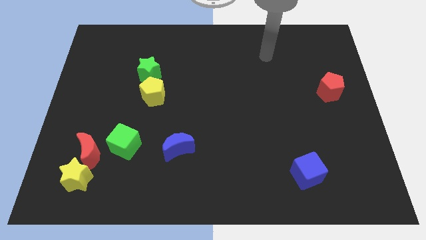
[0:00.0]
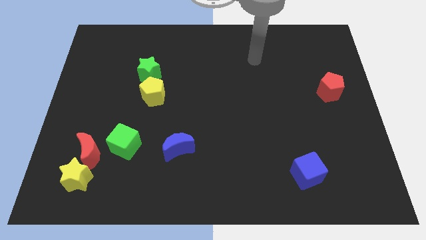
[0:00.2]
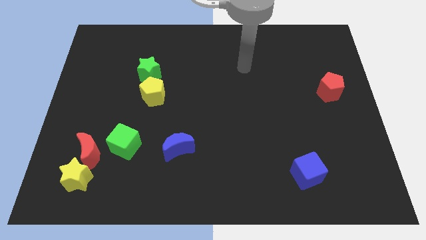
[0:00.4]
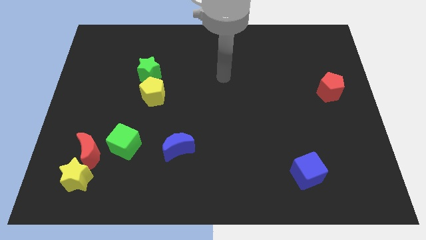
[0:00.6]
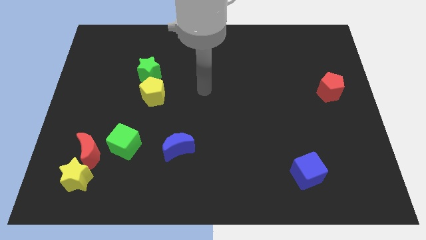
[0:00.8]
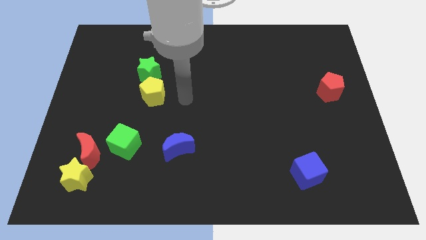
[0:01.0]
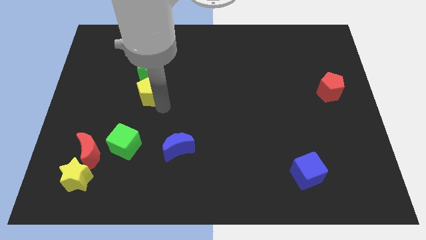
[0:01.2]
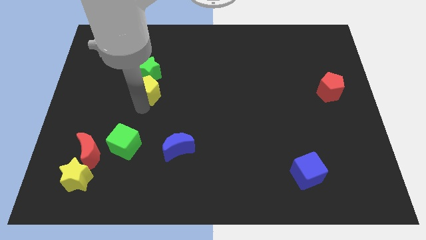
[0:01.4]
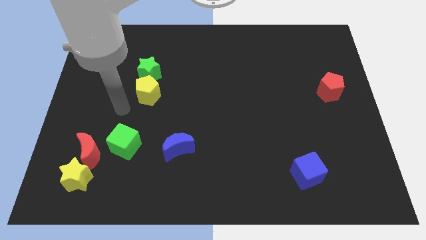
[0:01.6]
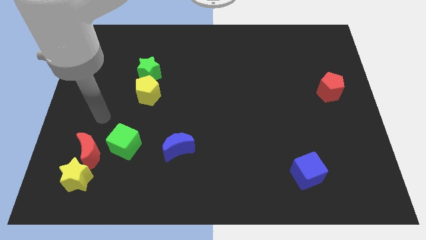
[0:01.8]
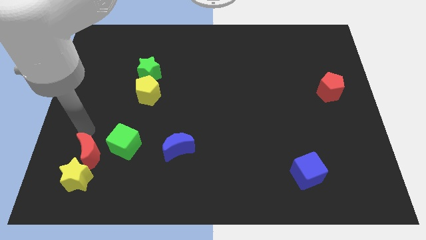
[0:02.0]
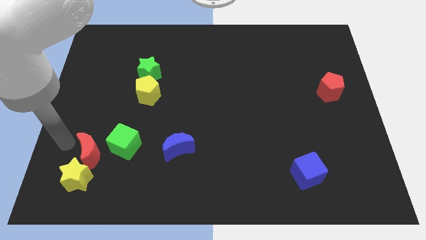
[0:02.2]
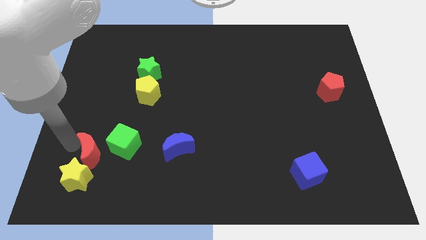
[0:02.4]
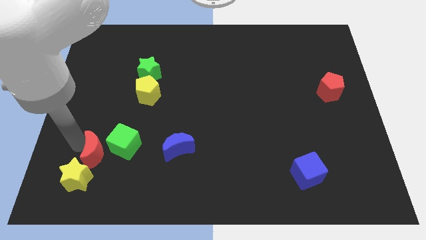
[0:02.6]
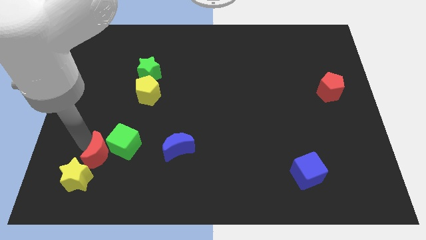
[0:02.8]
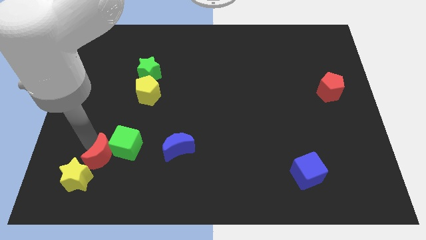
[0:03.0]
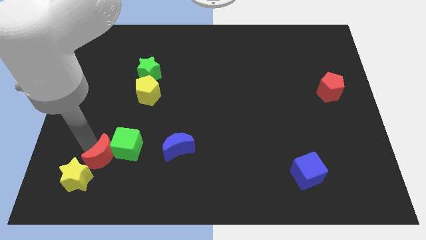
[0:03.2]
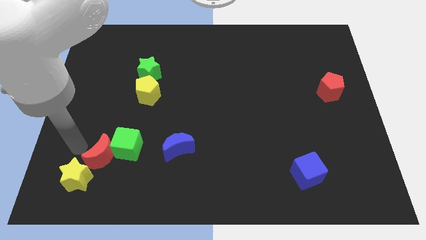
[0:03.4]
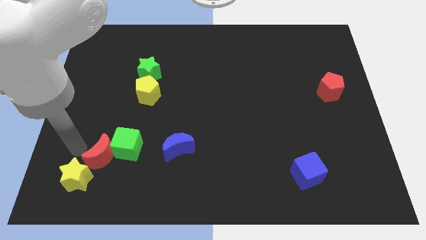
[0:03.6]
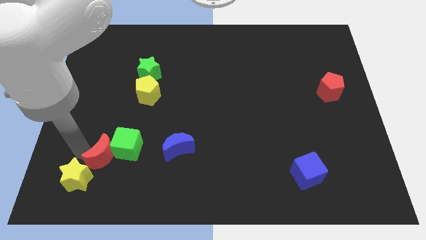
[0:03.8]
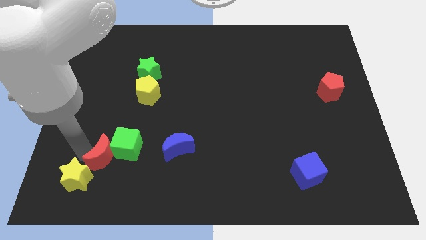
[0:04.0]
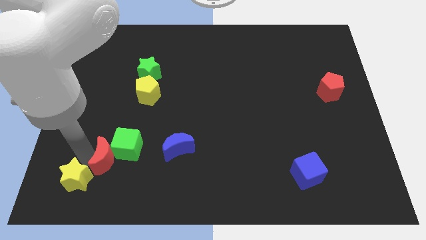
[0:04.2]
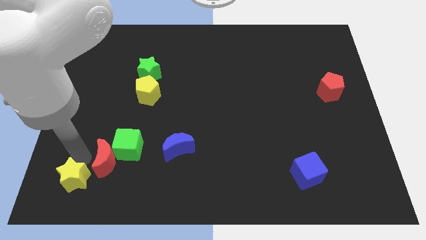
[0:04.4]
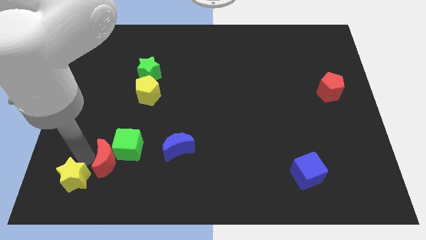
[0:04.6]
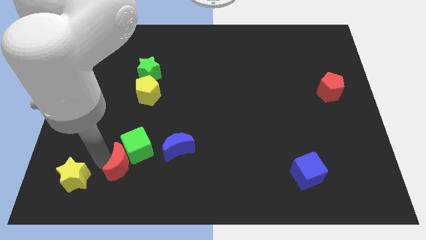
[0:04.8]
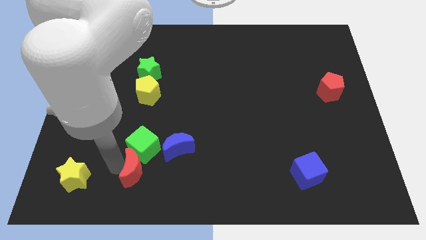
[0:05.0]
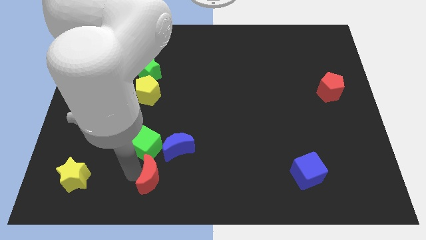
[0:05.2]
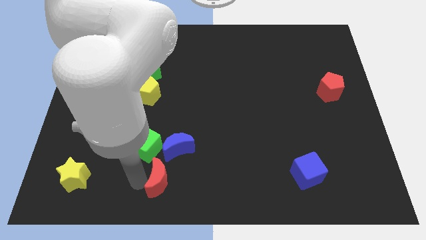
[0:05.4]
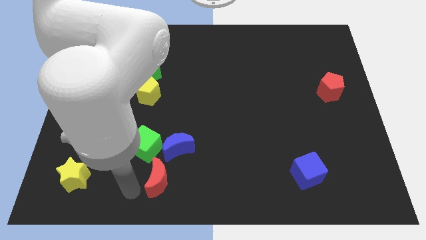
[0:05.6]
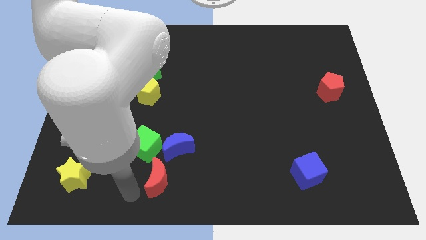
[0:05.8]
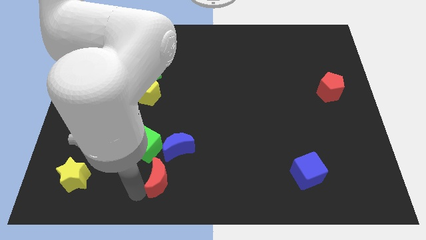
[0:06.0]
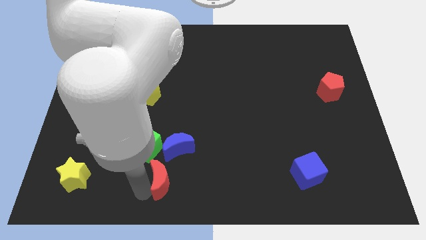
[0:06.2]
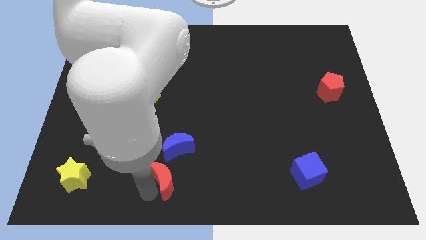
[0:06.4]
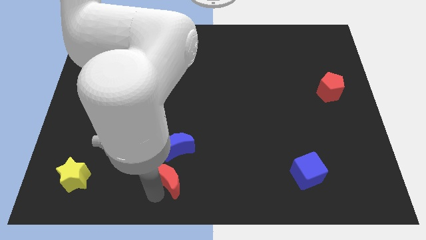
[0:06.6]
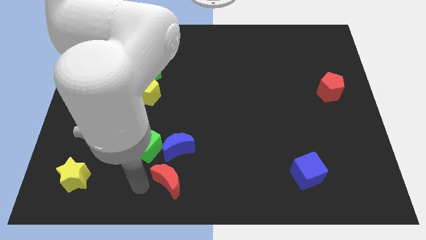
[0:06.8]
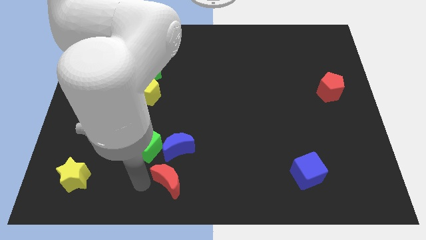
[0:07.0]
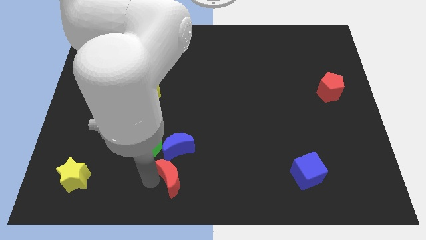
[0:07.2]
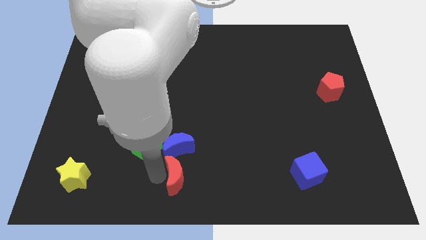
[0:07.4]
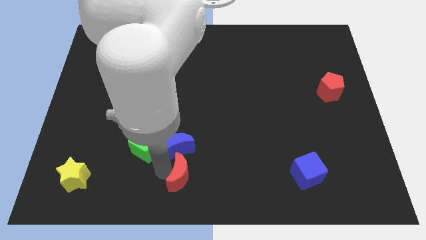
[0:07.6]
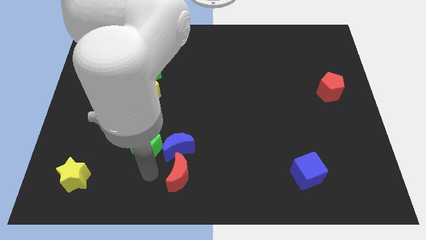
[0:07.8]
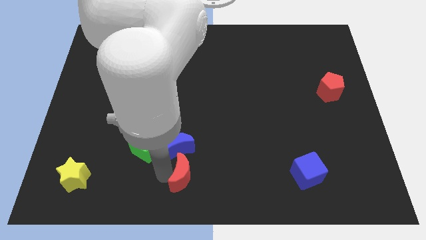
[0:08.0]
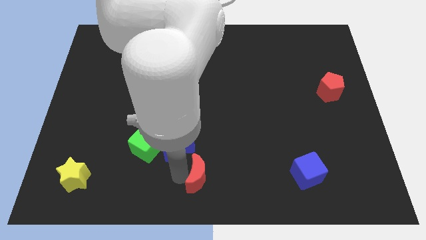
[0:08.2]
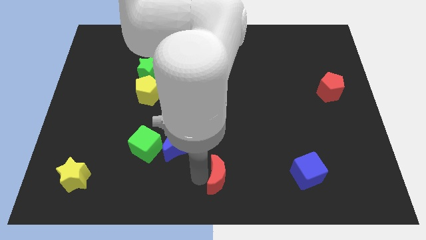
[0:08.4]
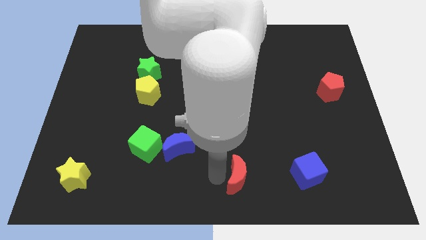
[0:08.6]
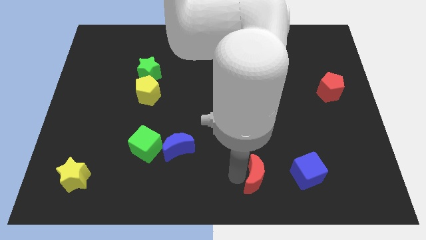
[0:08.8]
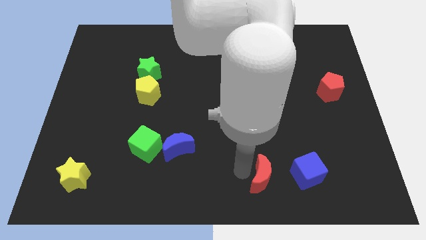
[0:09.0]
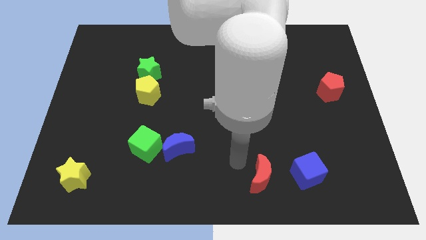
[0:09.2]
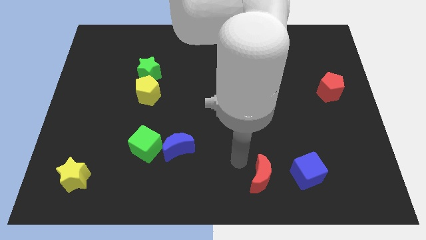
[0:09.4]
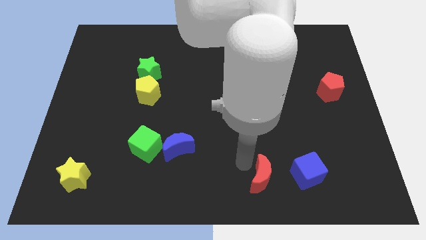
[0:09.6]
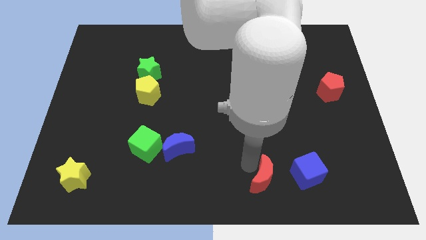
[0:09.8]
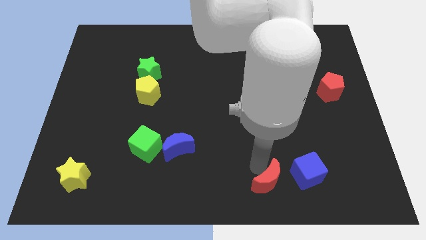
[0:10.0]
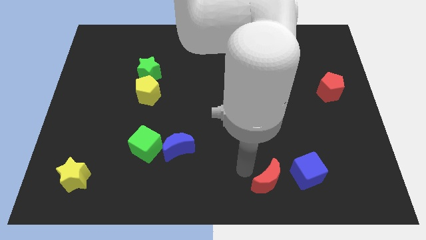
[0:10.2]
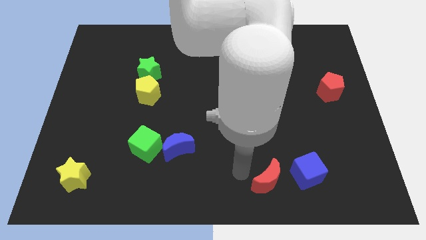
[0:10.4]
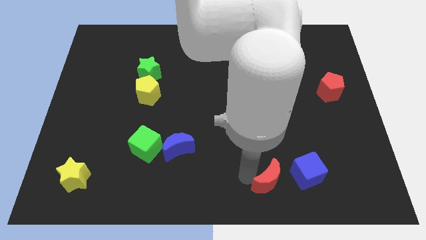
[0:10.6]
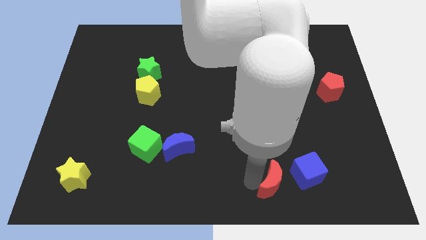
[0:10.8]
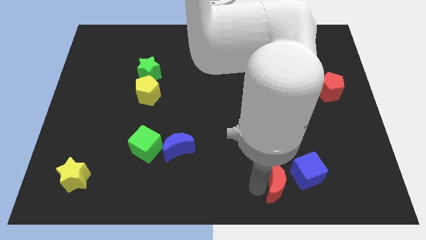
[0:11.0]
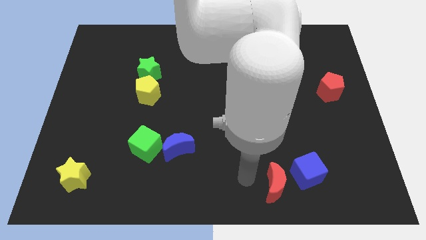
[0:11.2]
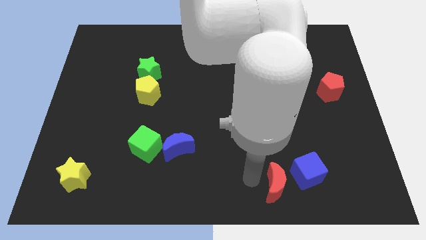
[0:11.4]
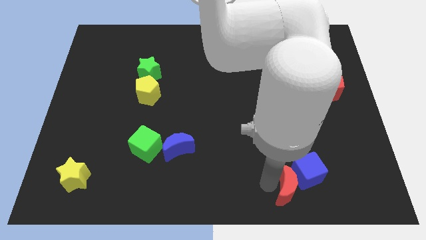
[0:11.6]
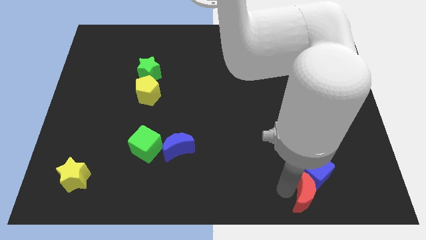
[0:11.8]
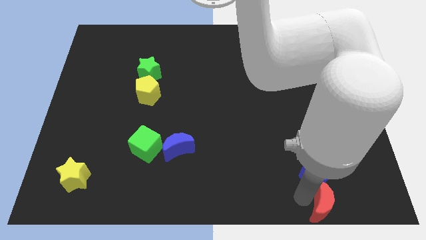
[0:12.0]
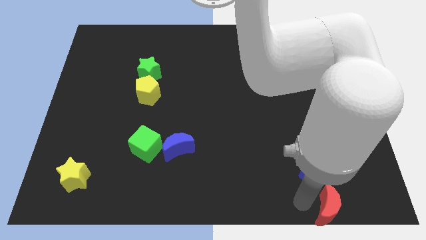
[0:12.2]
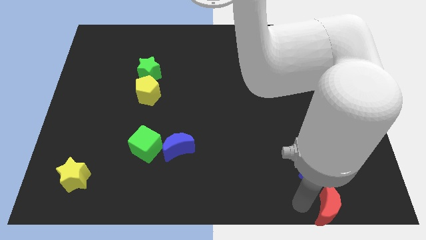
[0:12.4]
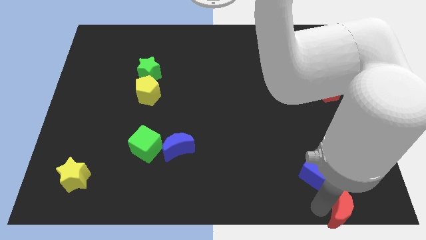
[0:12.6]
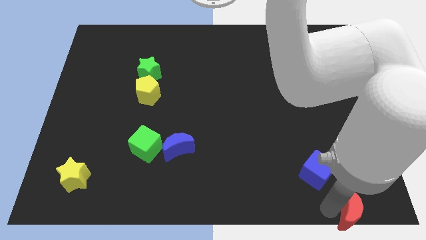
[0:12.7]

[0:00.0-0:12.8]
put the red moon to the bottom right

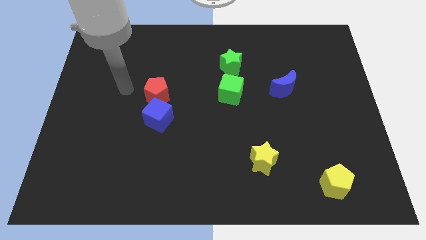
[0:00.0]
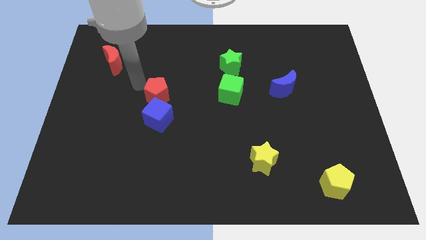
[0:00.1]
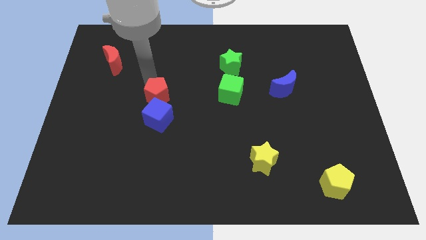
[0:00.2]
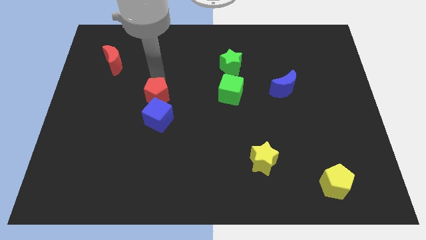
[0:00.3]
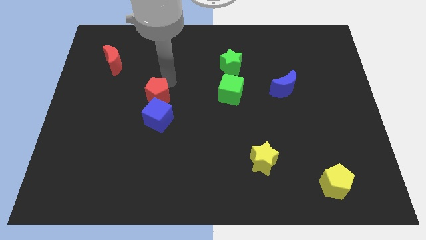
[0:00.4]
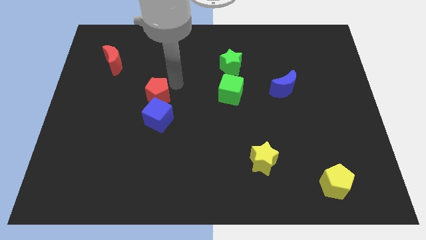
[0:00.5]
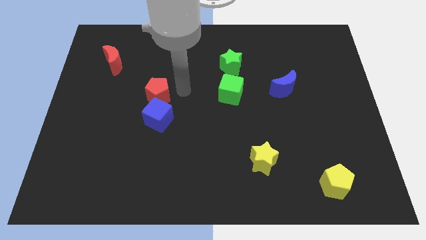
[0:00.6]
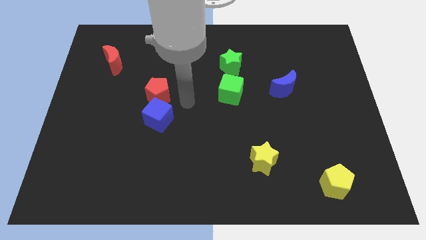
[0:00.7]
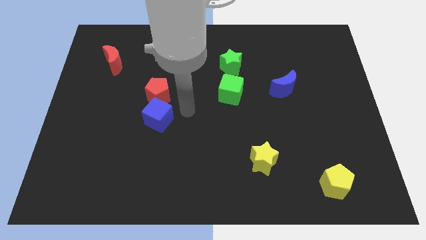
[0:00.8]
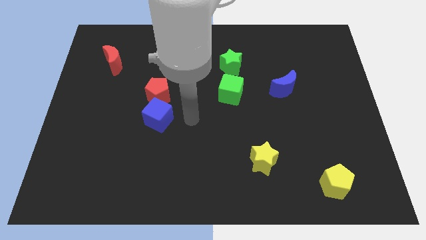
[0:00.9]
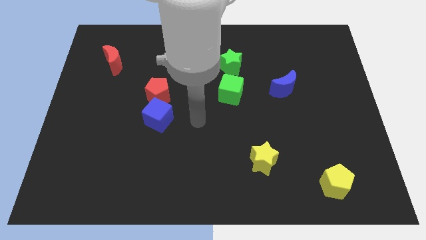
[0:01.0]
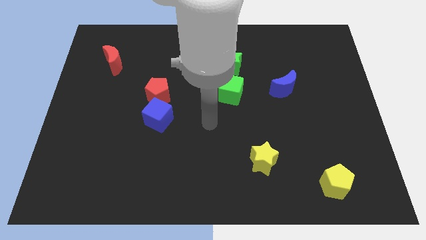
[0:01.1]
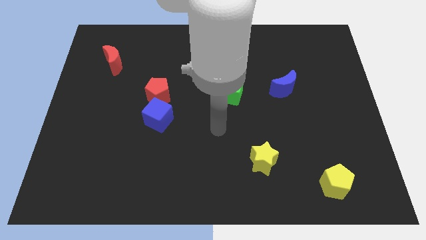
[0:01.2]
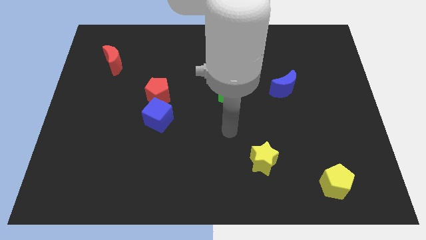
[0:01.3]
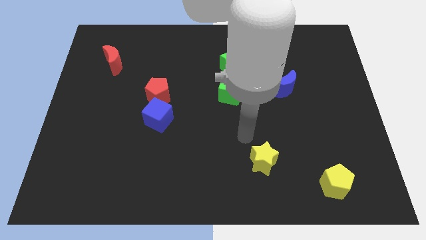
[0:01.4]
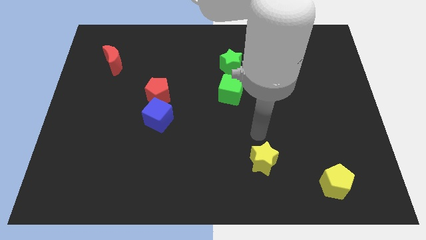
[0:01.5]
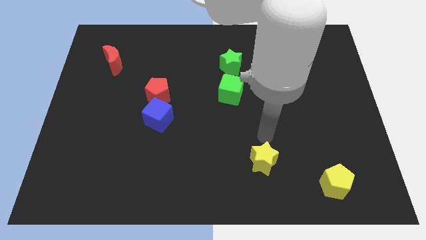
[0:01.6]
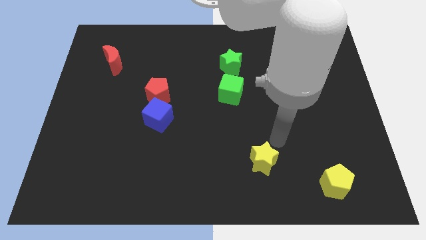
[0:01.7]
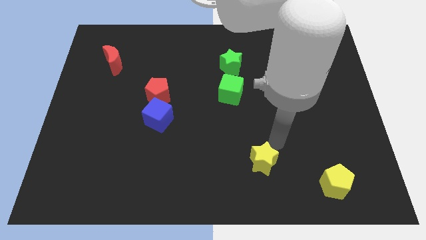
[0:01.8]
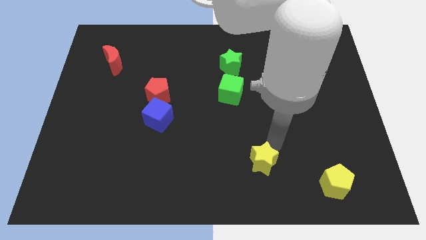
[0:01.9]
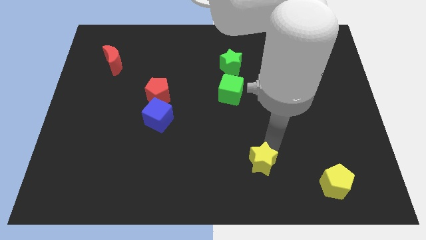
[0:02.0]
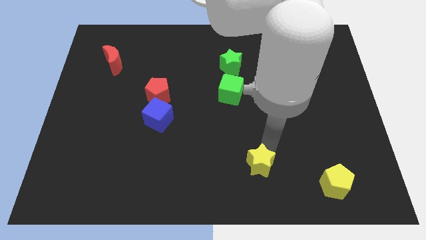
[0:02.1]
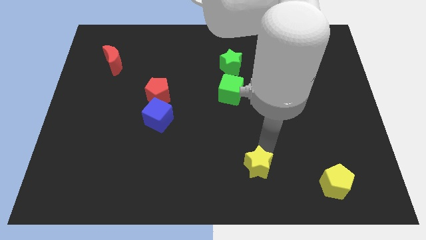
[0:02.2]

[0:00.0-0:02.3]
slide the yellow star to the bottom side
